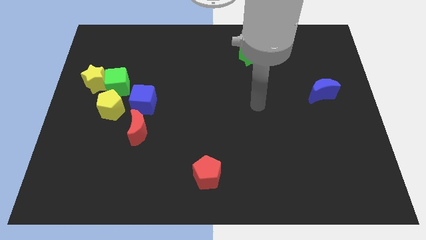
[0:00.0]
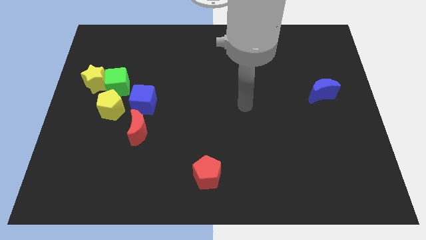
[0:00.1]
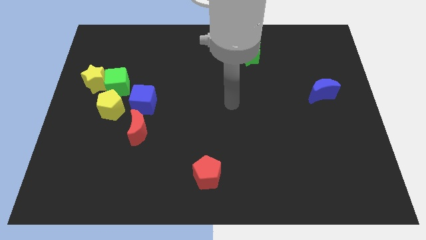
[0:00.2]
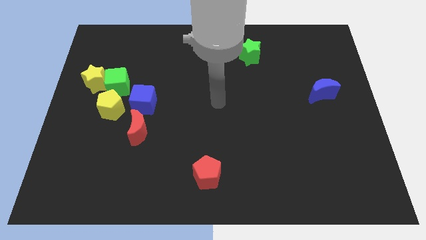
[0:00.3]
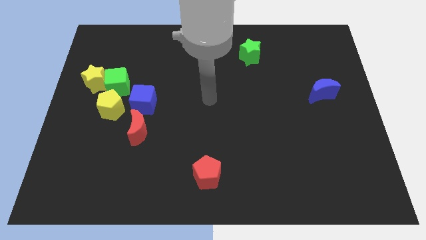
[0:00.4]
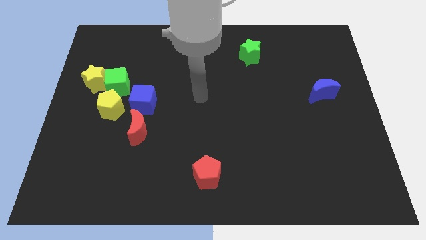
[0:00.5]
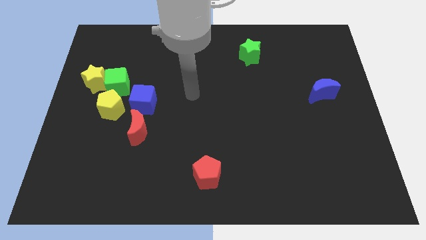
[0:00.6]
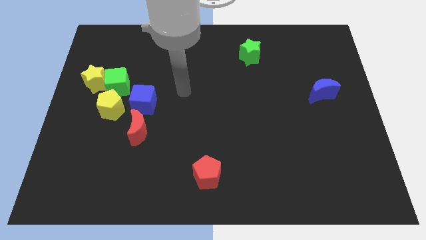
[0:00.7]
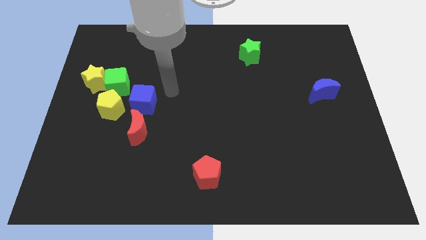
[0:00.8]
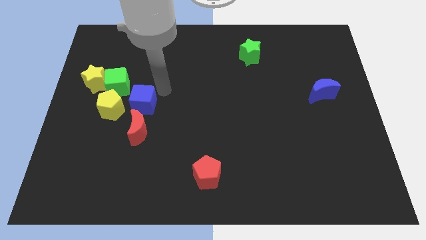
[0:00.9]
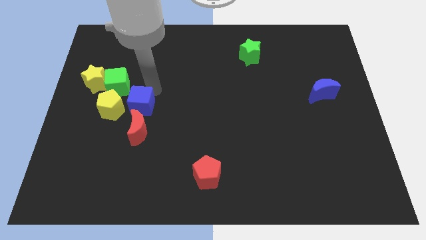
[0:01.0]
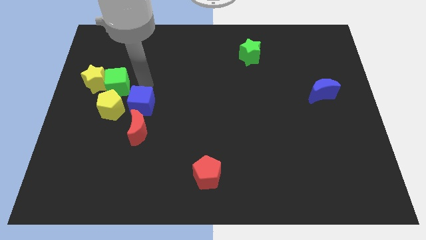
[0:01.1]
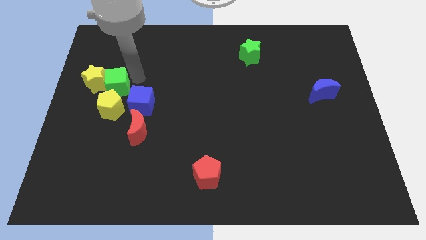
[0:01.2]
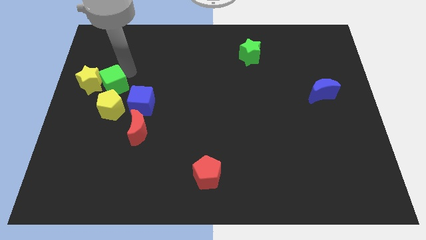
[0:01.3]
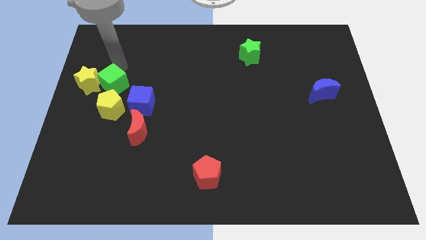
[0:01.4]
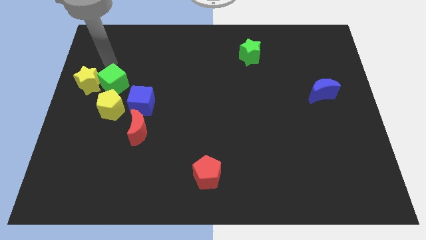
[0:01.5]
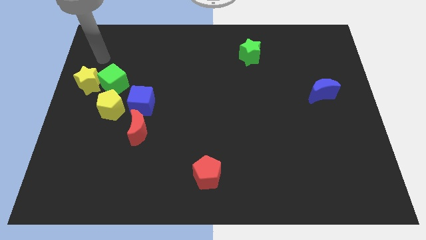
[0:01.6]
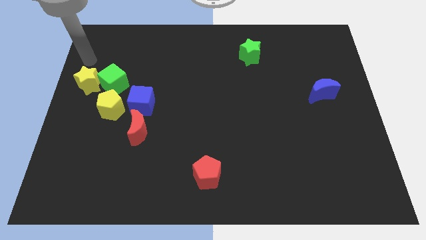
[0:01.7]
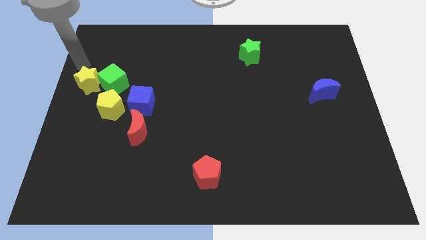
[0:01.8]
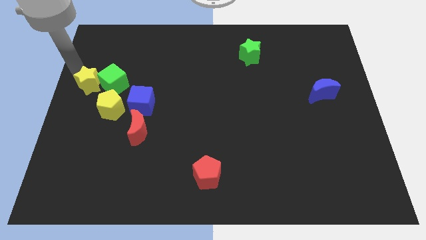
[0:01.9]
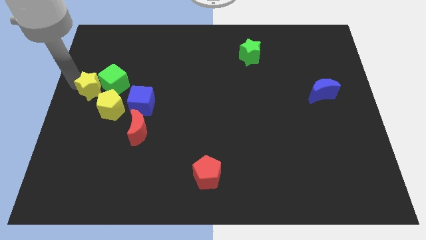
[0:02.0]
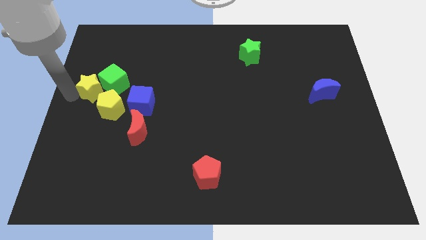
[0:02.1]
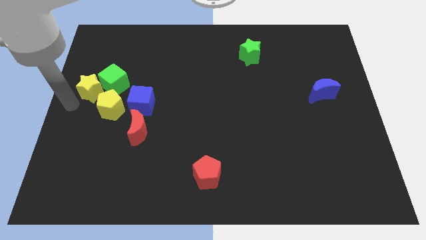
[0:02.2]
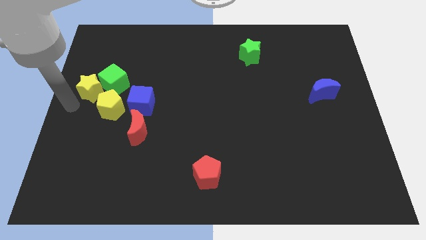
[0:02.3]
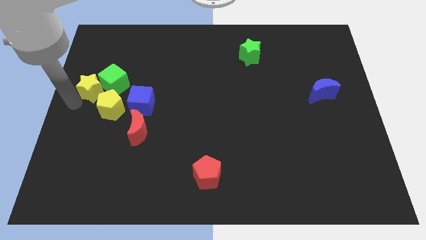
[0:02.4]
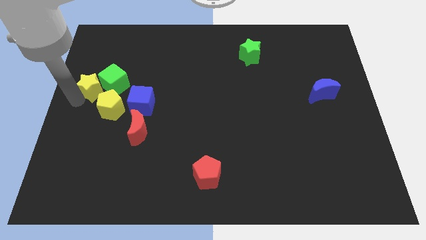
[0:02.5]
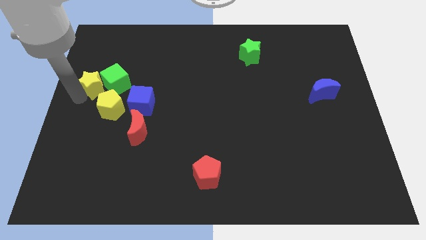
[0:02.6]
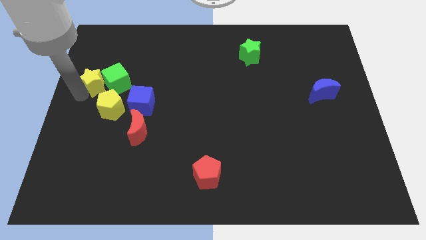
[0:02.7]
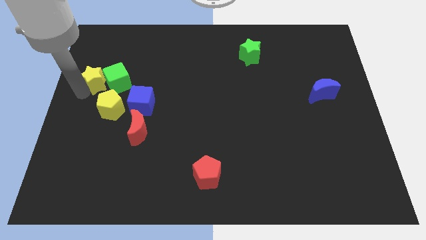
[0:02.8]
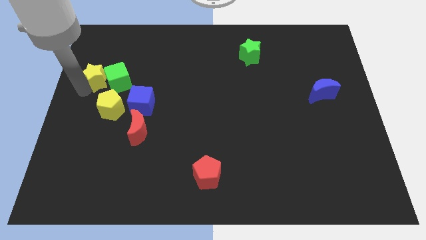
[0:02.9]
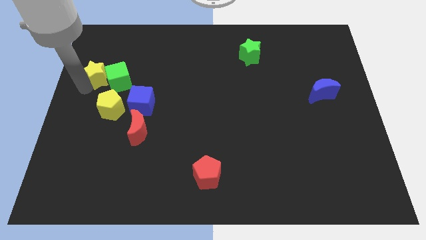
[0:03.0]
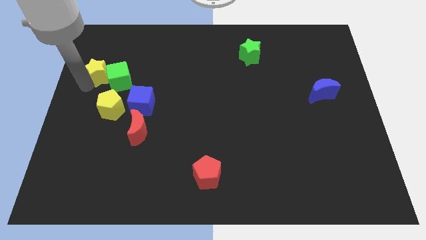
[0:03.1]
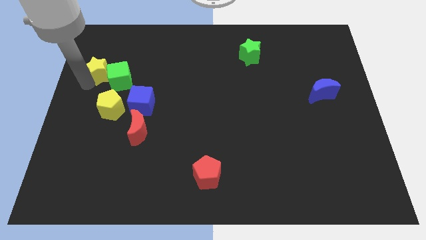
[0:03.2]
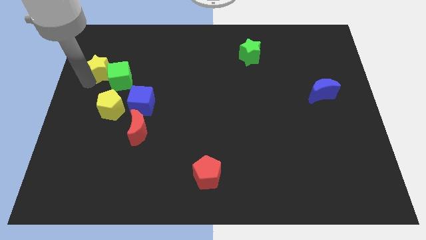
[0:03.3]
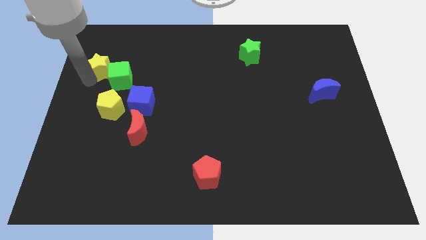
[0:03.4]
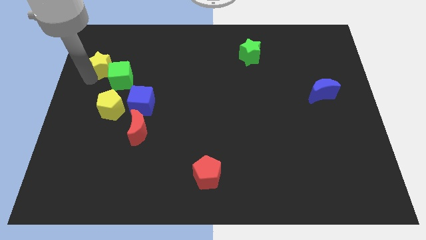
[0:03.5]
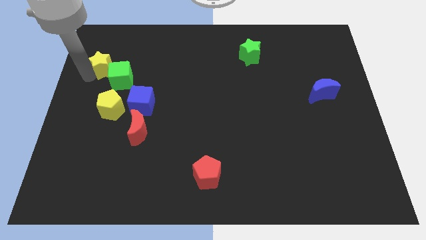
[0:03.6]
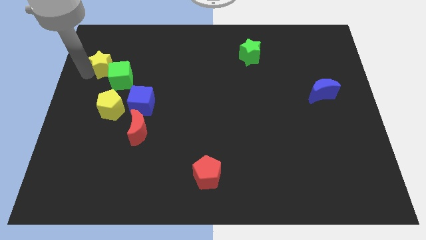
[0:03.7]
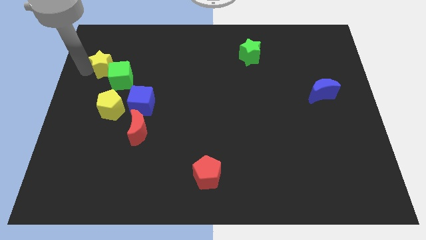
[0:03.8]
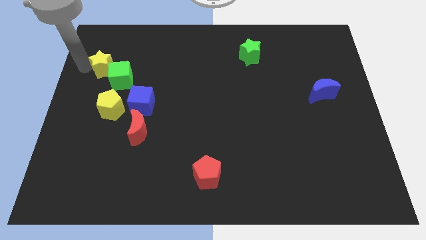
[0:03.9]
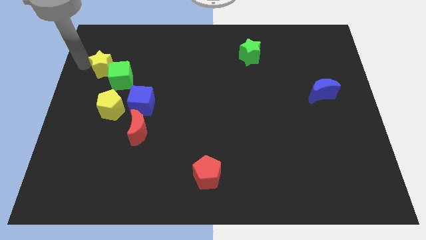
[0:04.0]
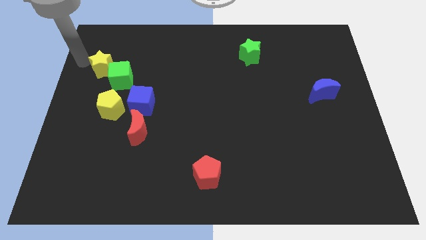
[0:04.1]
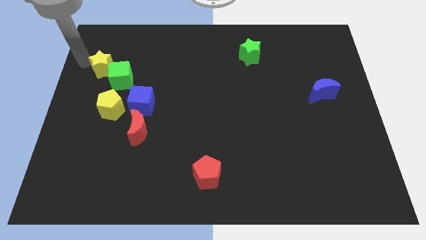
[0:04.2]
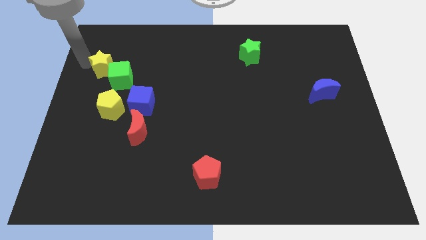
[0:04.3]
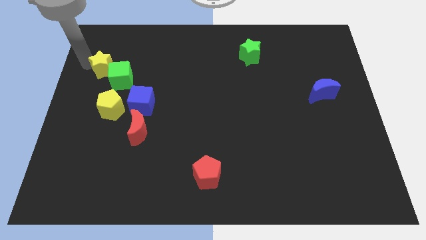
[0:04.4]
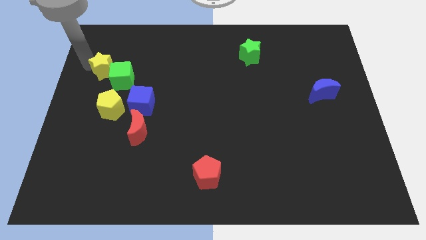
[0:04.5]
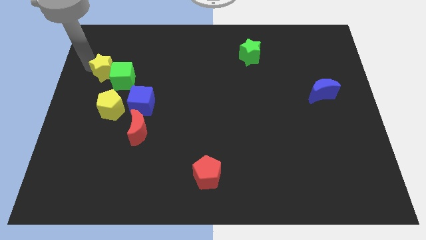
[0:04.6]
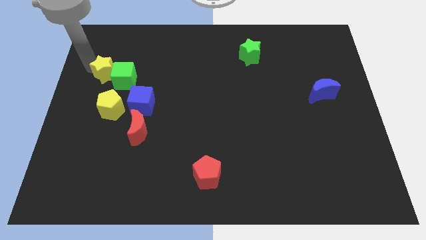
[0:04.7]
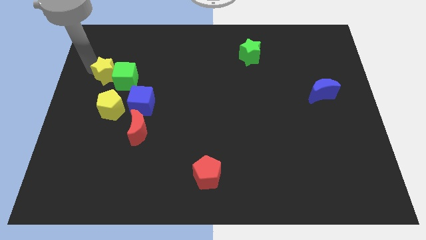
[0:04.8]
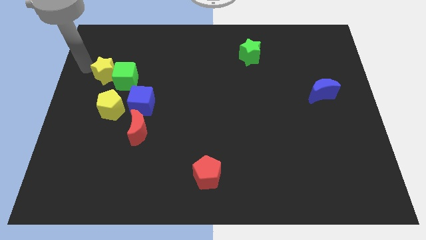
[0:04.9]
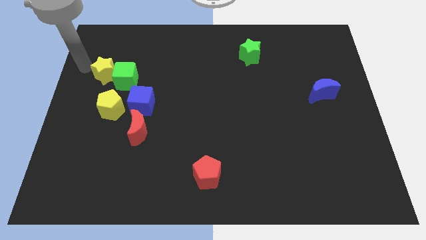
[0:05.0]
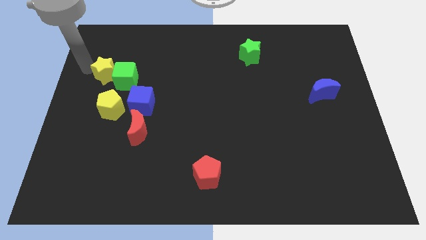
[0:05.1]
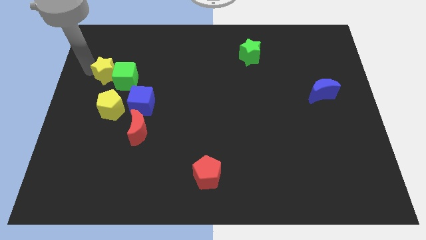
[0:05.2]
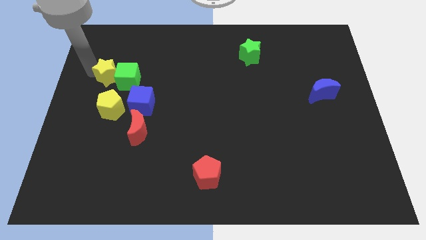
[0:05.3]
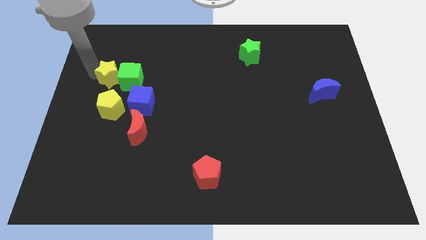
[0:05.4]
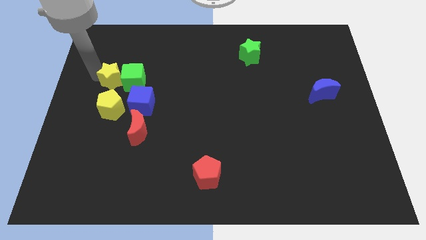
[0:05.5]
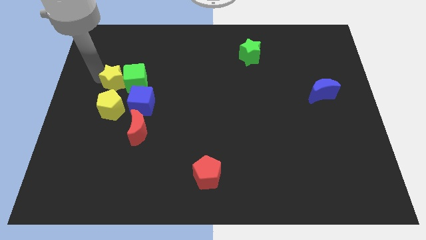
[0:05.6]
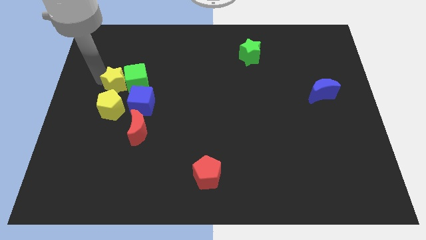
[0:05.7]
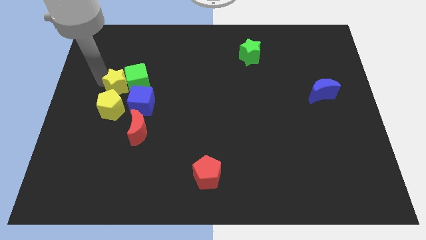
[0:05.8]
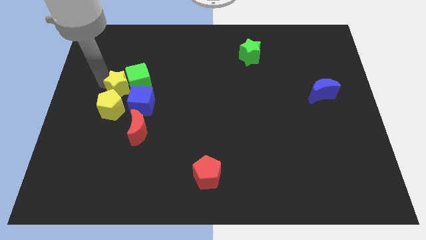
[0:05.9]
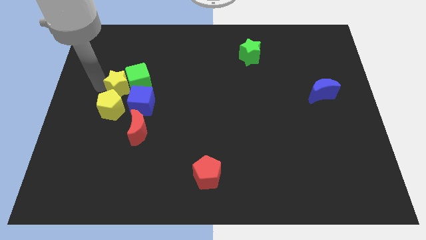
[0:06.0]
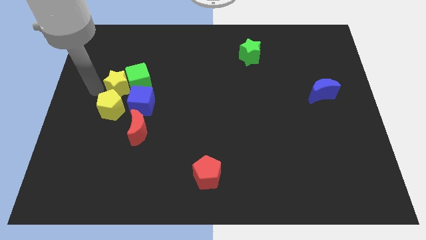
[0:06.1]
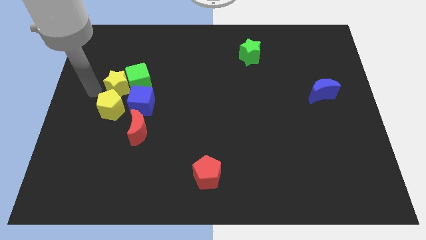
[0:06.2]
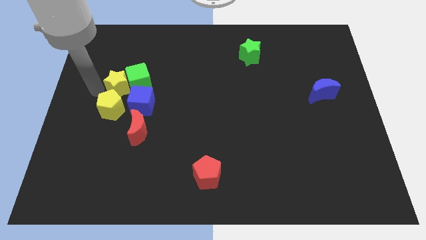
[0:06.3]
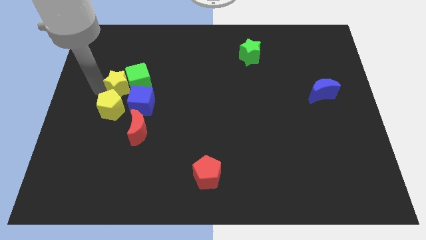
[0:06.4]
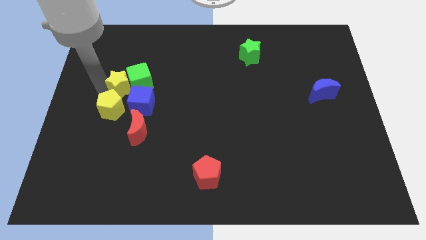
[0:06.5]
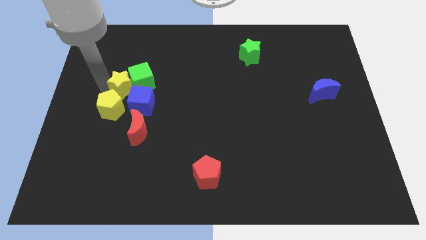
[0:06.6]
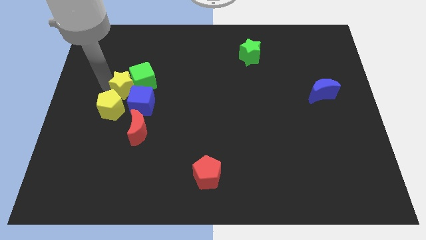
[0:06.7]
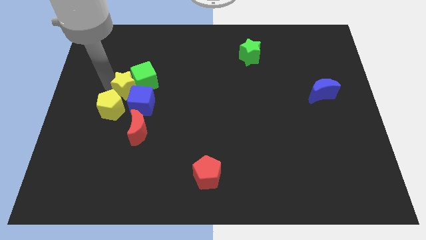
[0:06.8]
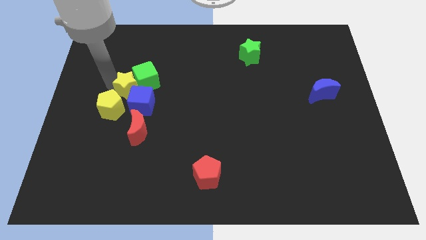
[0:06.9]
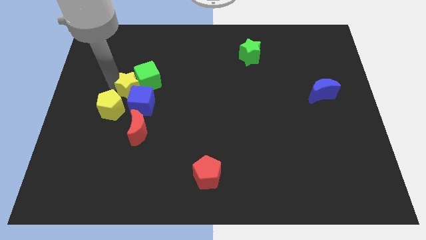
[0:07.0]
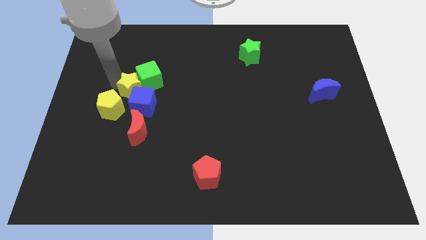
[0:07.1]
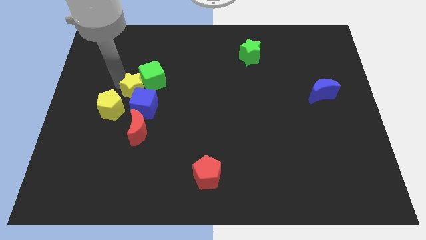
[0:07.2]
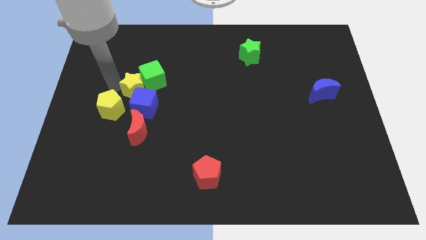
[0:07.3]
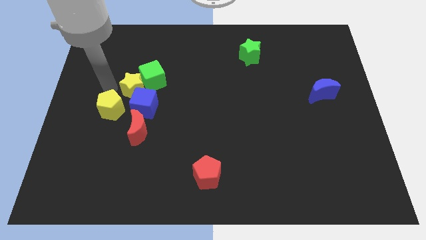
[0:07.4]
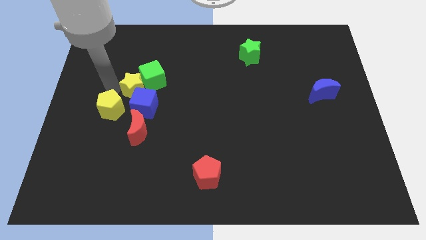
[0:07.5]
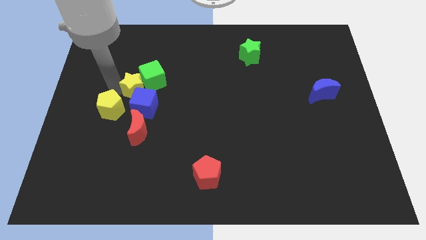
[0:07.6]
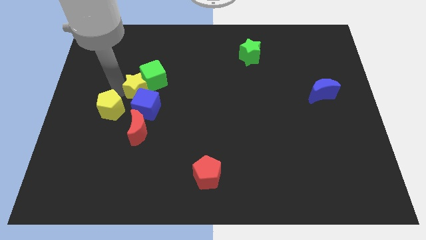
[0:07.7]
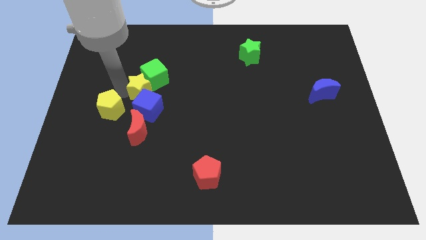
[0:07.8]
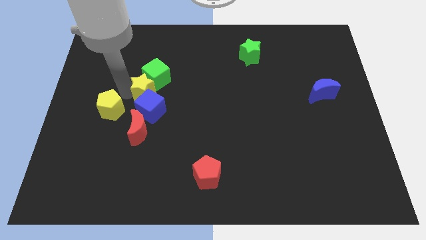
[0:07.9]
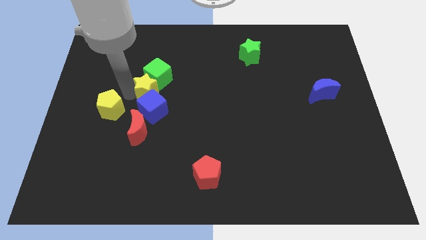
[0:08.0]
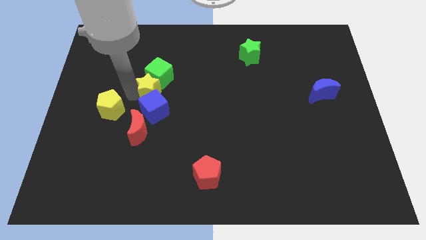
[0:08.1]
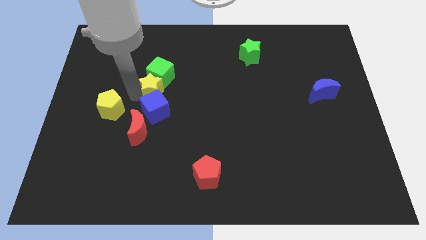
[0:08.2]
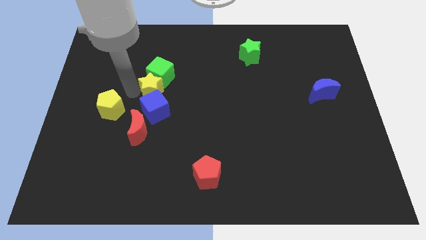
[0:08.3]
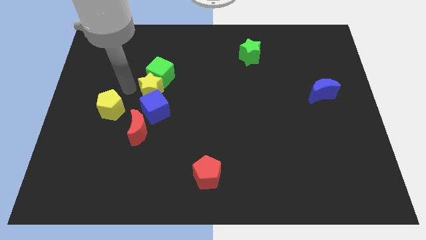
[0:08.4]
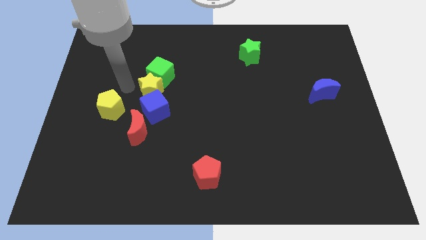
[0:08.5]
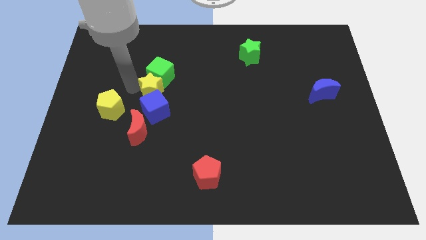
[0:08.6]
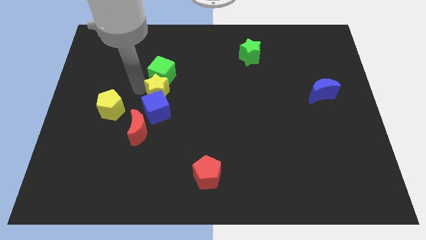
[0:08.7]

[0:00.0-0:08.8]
move the yellow star diagonally up and to the right of the blue cube
